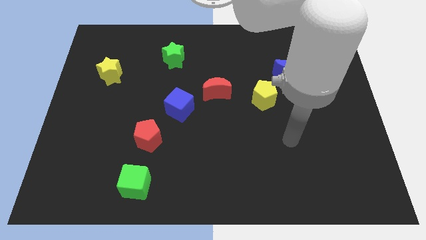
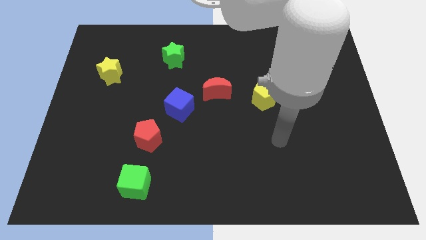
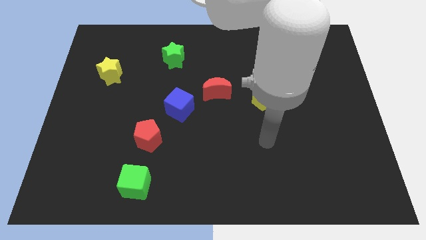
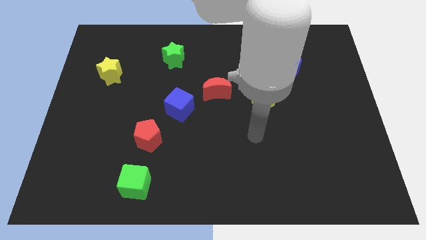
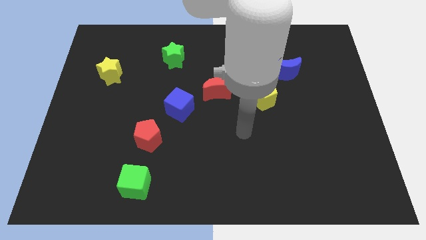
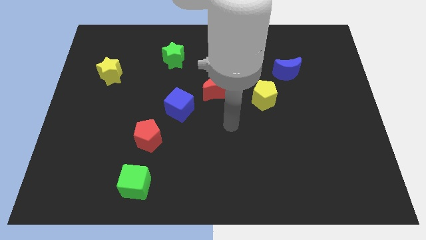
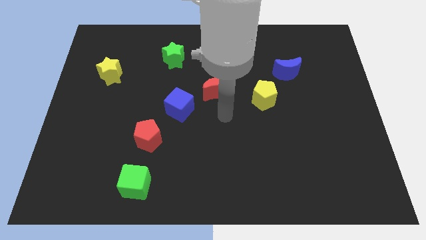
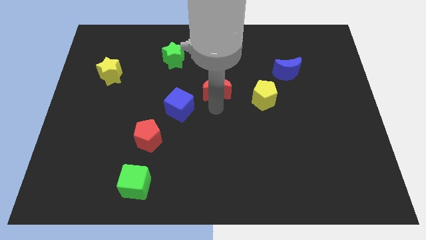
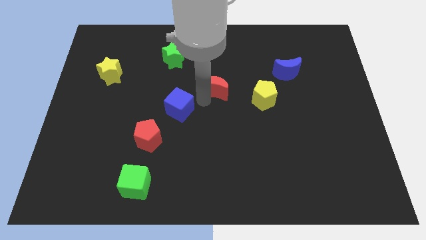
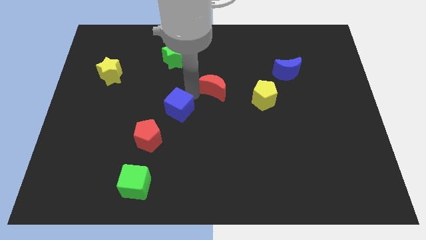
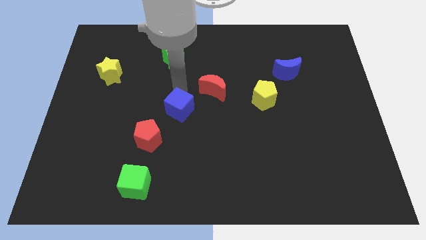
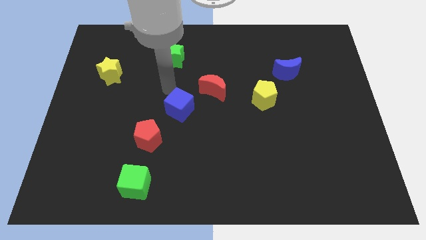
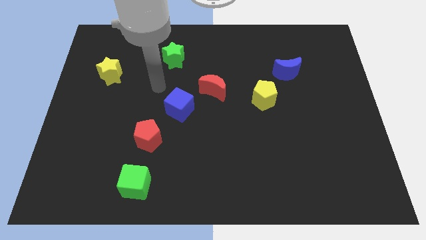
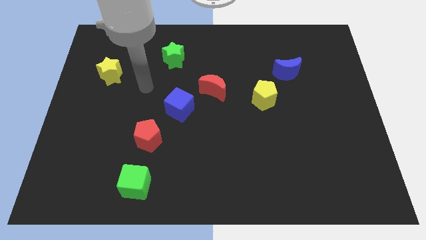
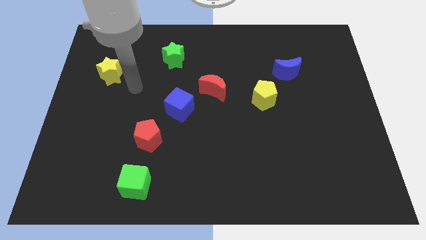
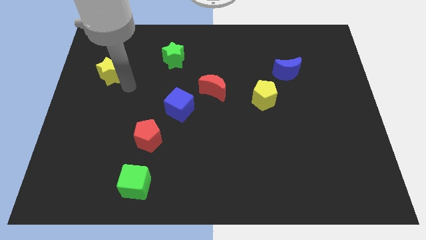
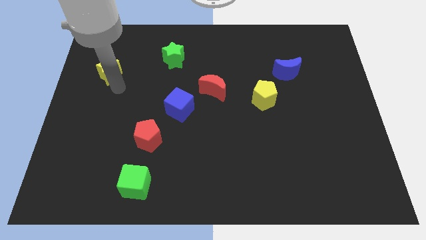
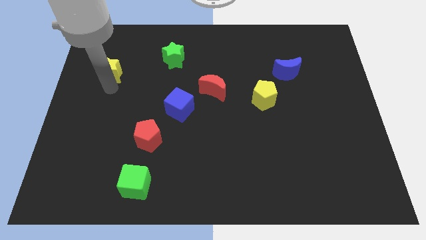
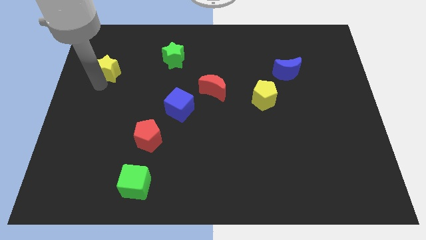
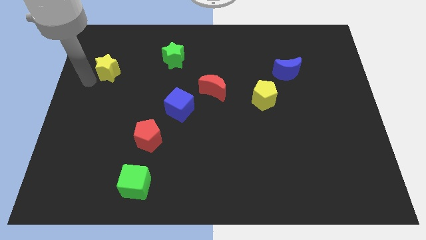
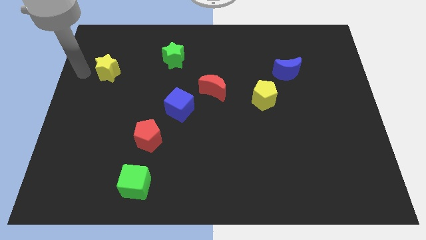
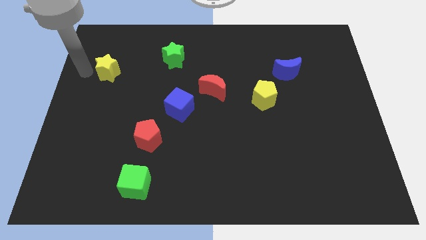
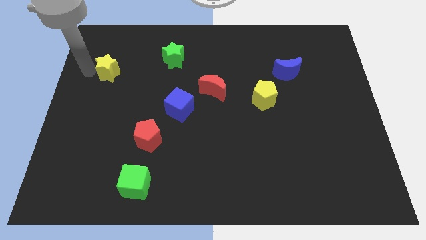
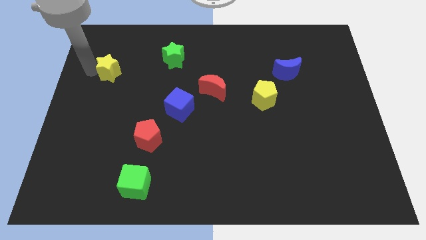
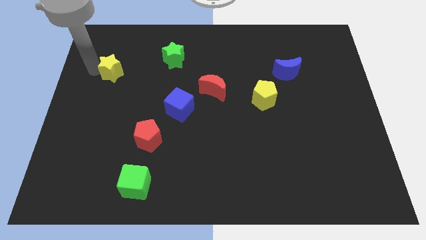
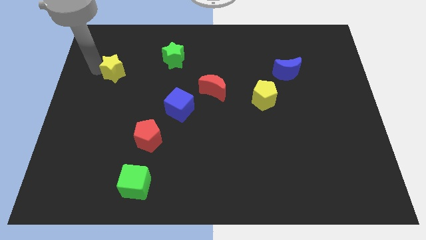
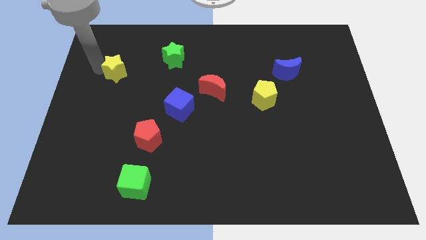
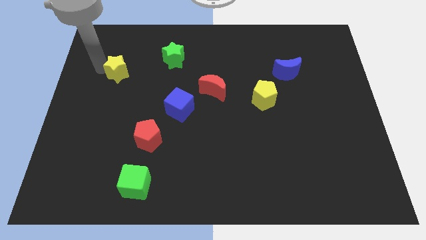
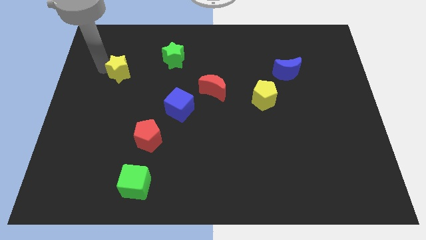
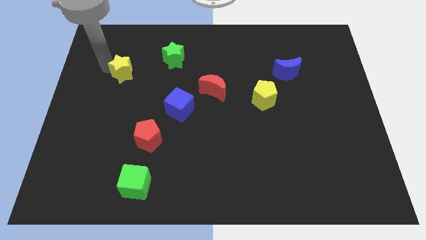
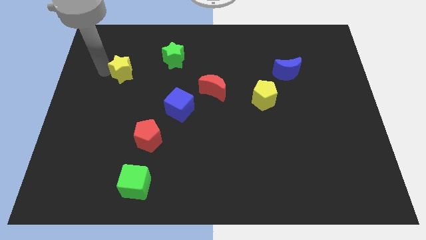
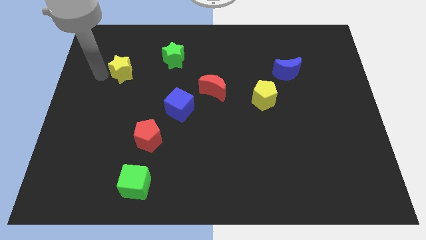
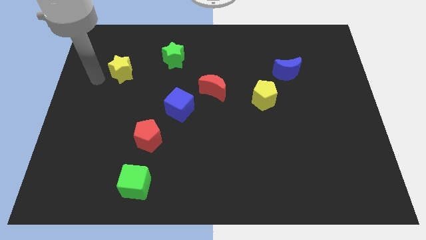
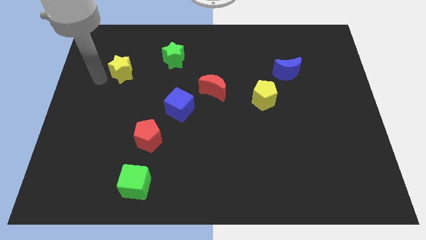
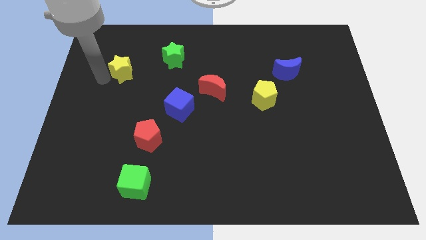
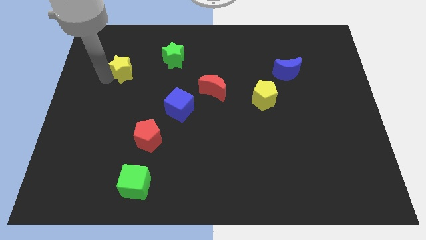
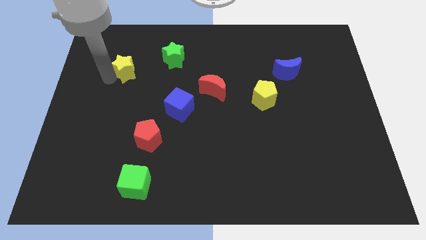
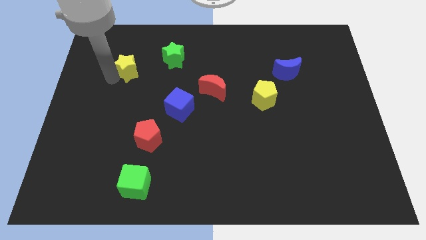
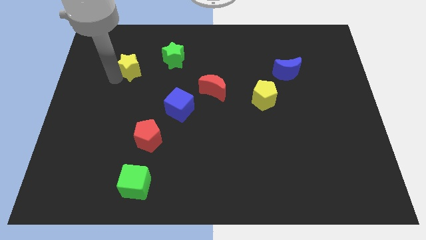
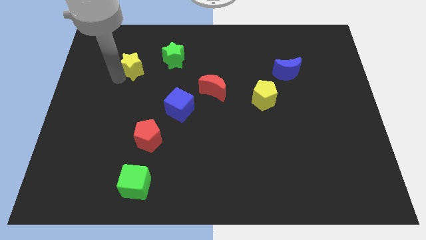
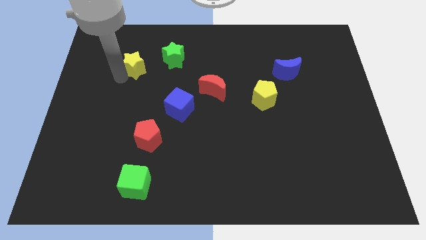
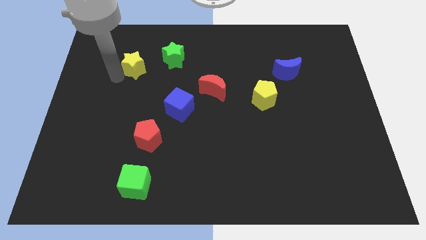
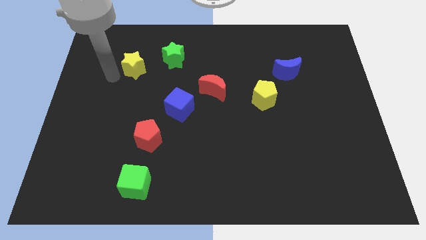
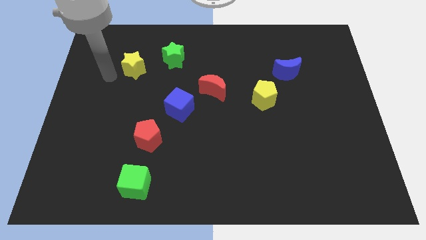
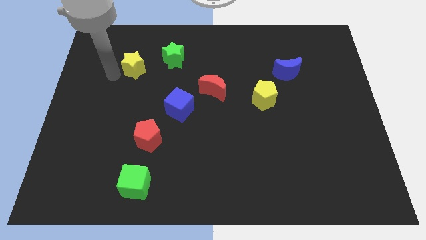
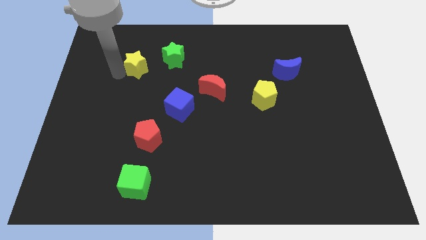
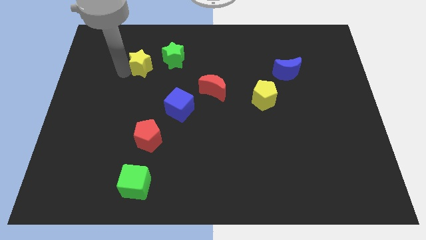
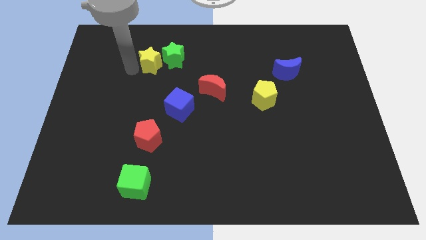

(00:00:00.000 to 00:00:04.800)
slide the yellow star to the green star

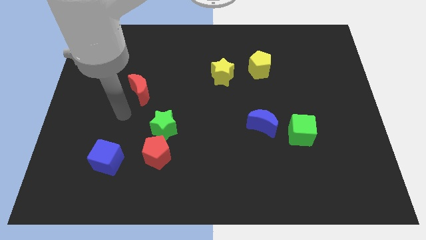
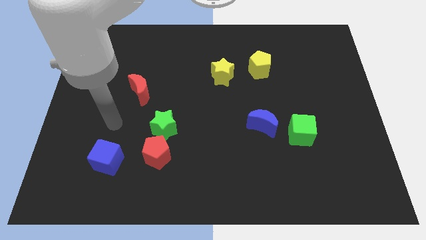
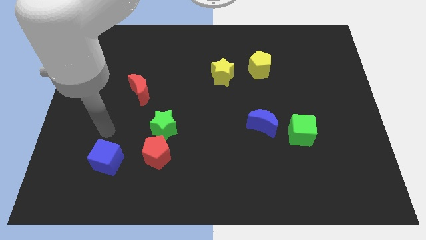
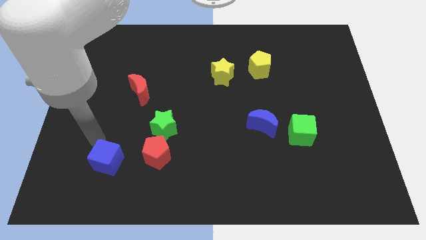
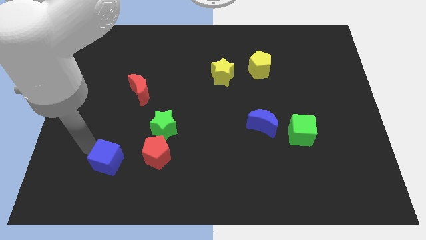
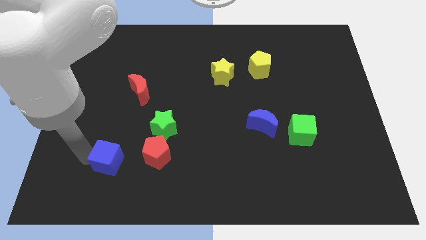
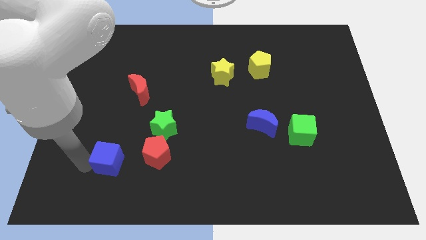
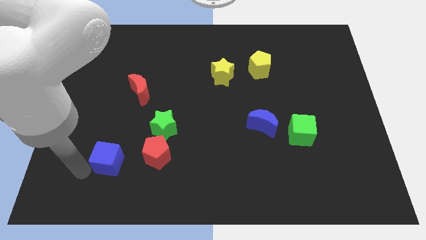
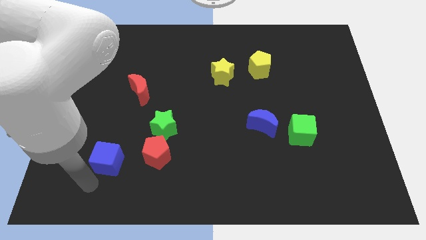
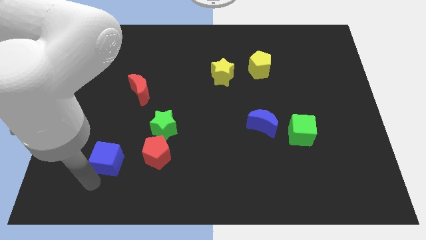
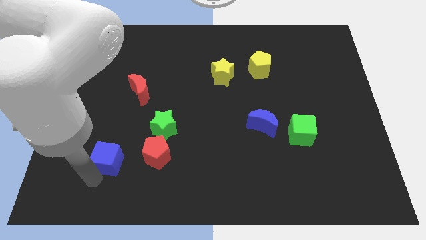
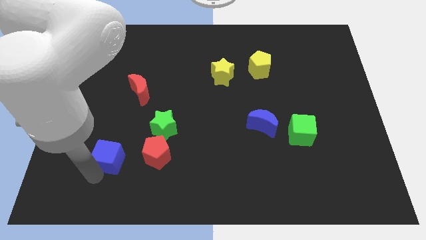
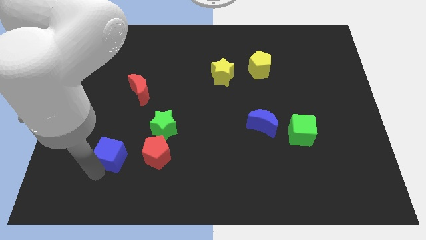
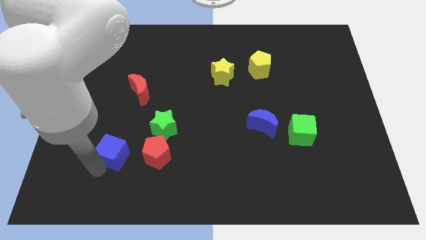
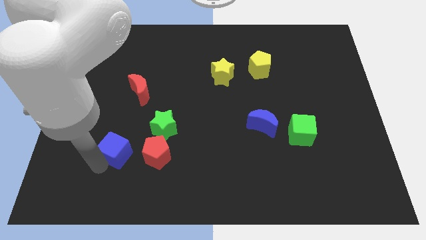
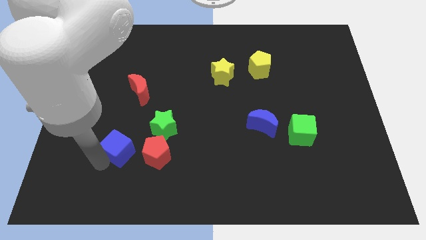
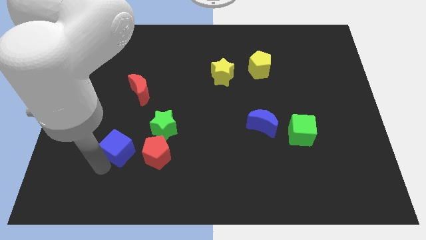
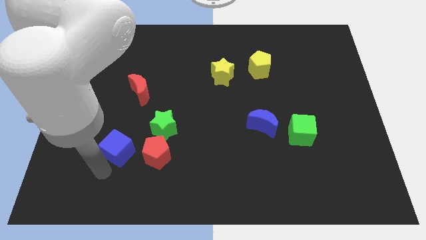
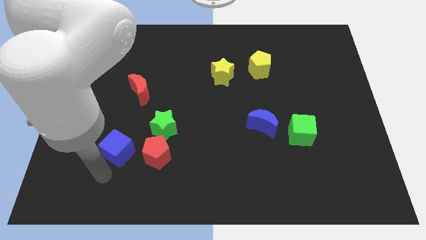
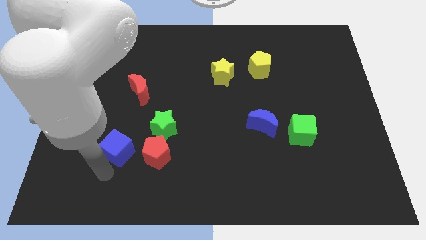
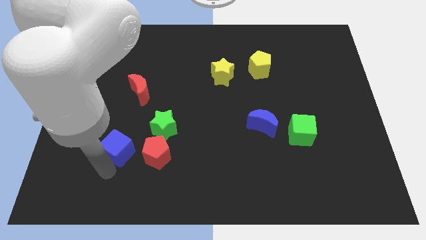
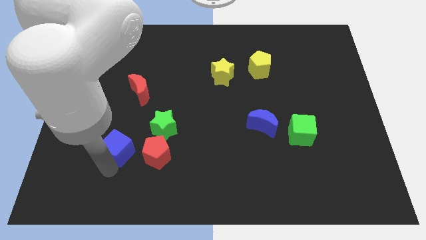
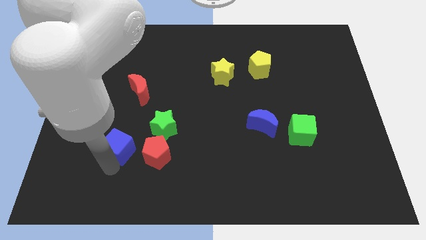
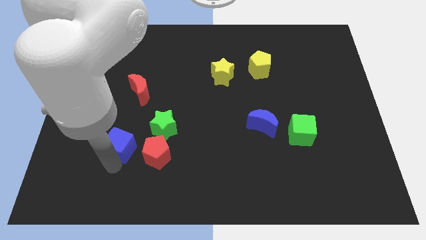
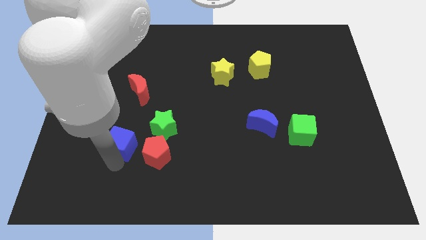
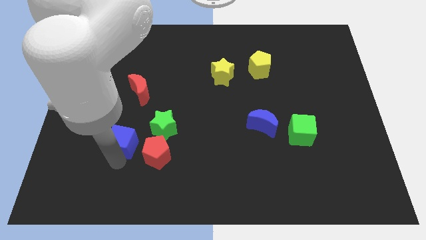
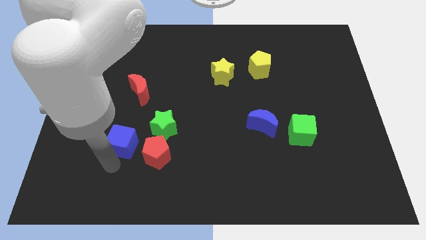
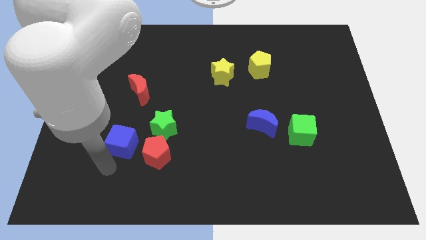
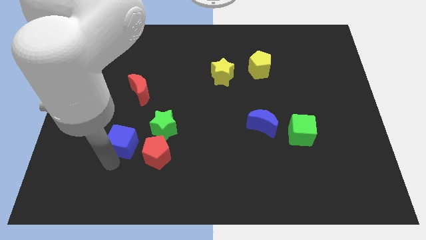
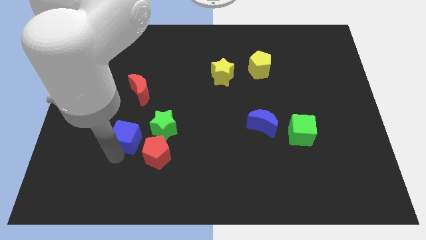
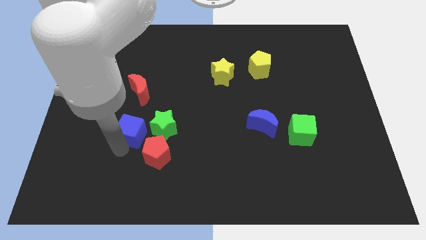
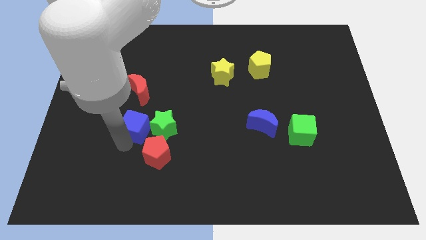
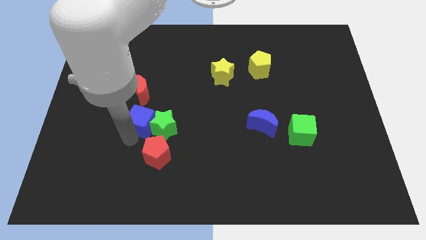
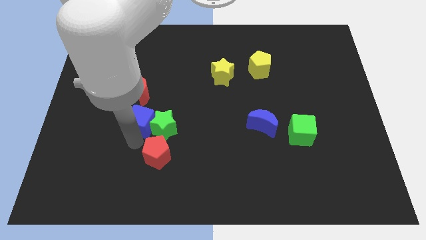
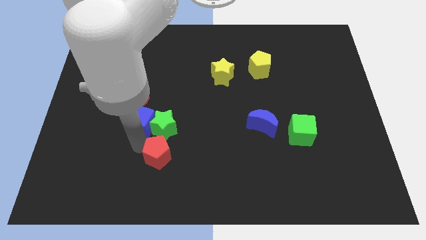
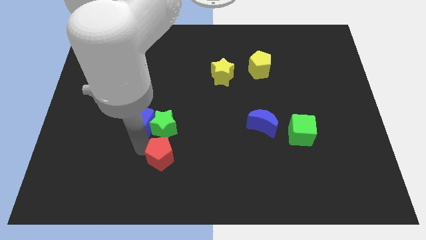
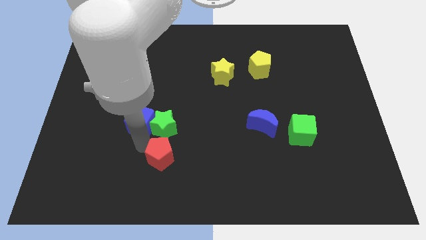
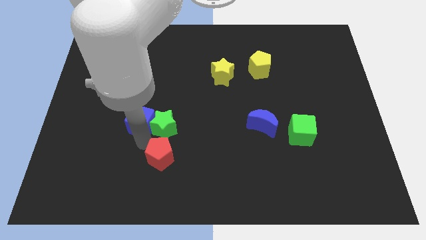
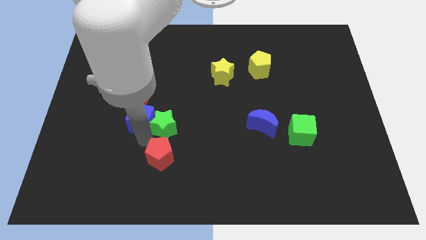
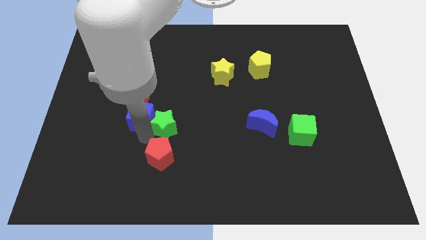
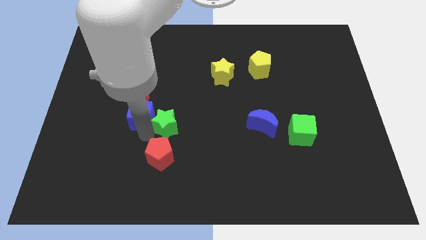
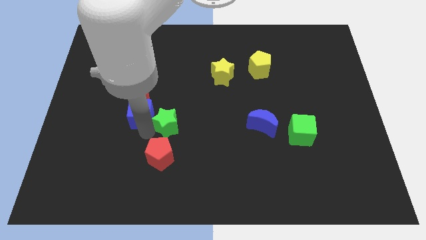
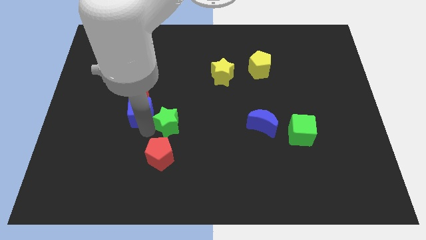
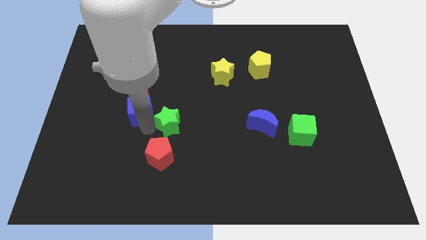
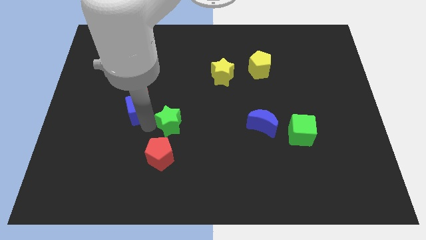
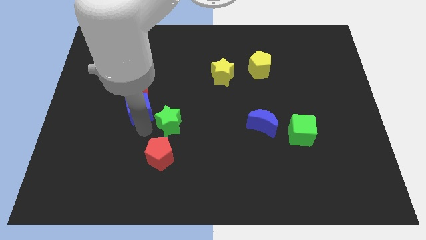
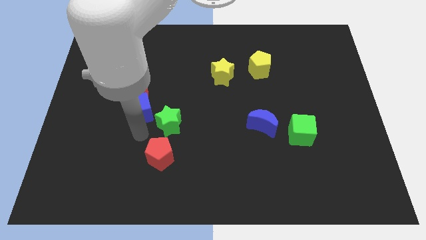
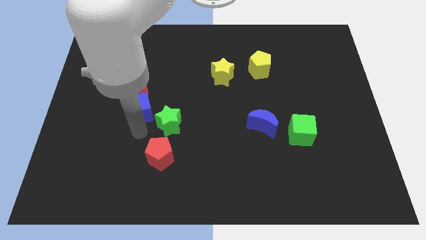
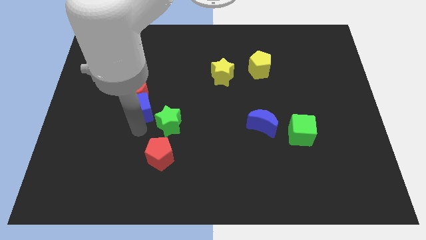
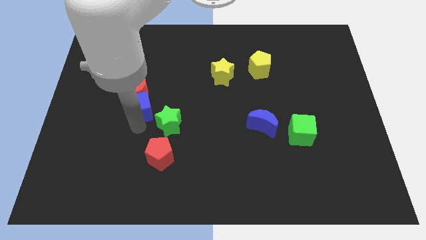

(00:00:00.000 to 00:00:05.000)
move the blue cube towards the red moon
